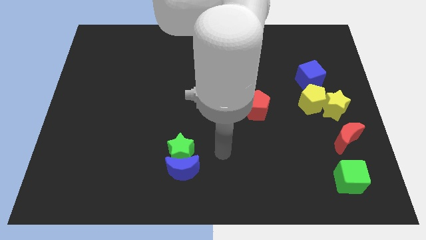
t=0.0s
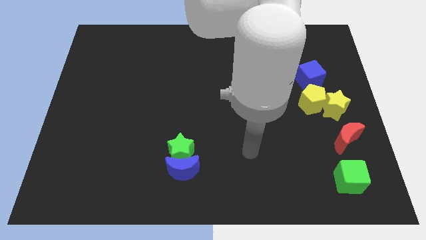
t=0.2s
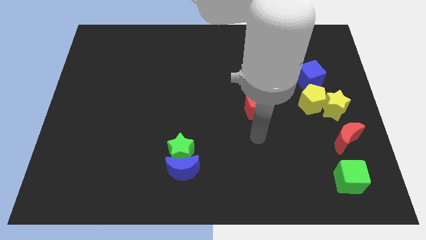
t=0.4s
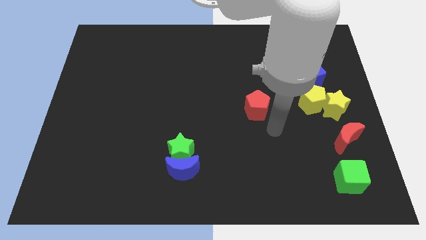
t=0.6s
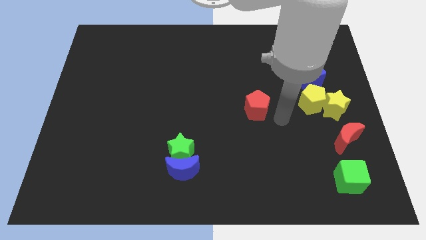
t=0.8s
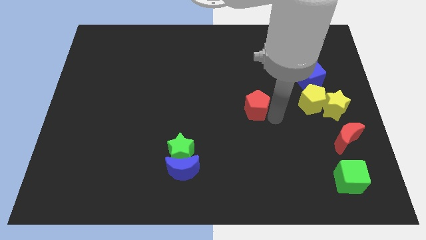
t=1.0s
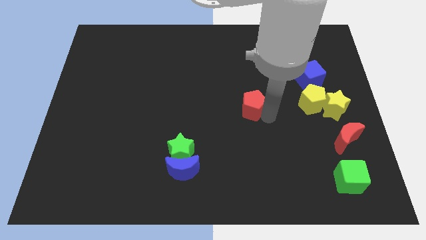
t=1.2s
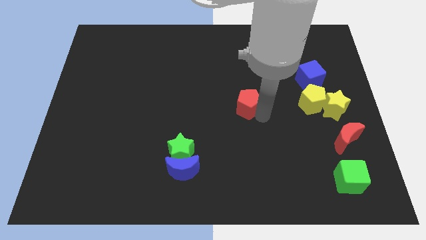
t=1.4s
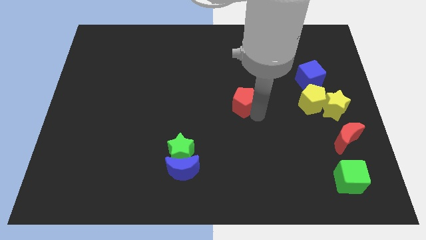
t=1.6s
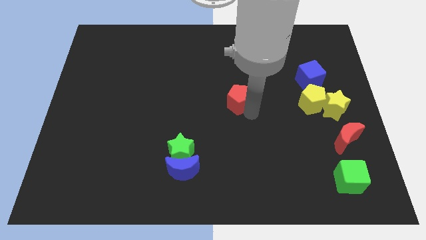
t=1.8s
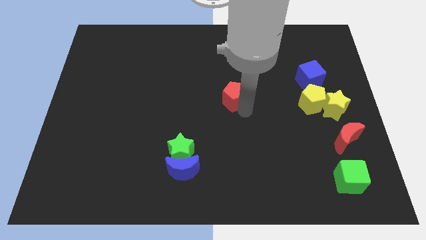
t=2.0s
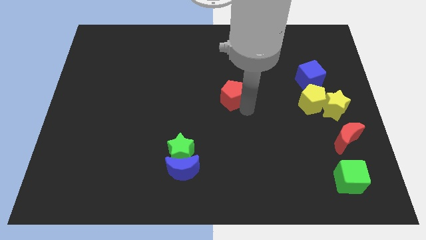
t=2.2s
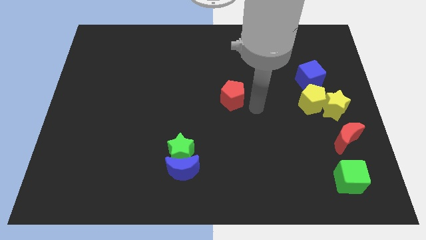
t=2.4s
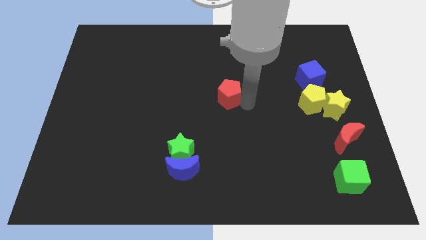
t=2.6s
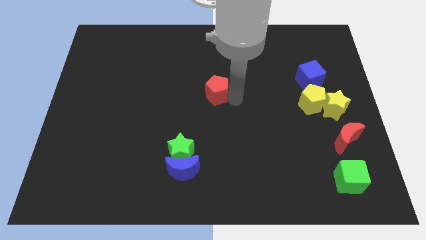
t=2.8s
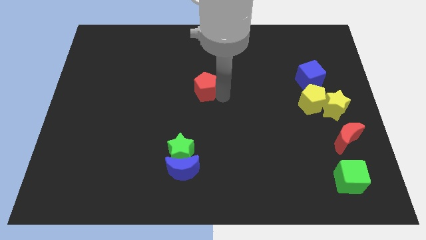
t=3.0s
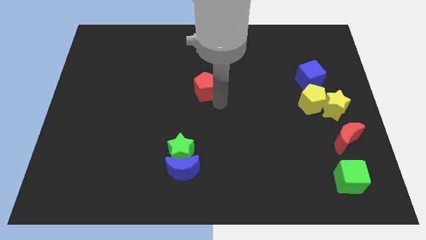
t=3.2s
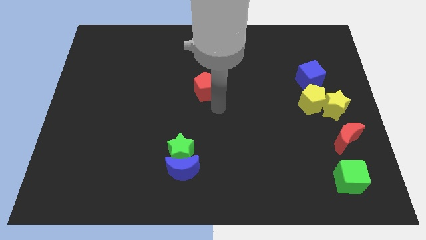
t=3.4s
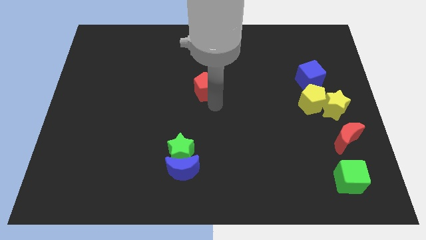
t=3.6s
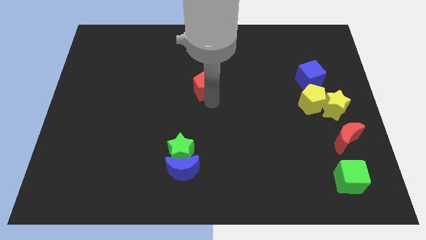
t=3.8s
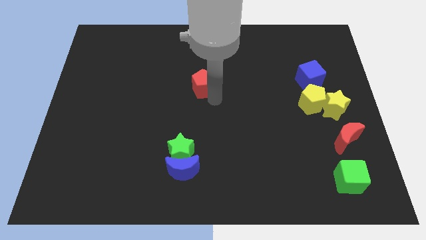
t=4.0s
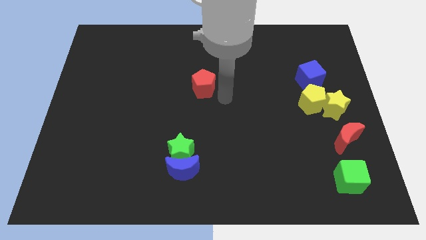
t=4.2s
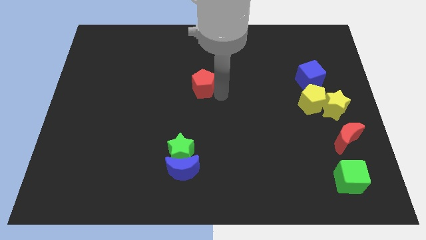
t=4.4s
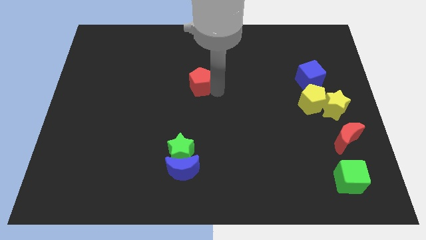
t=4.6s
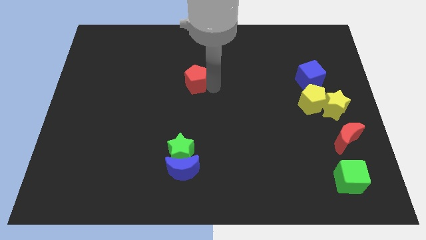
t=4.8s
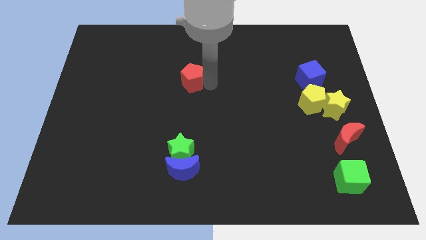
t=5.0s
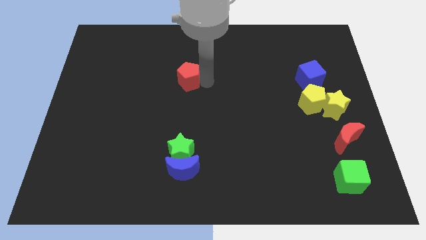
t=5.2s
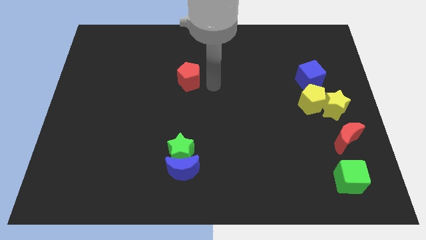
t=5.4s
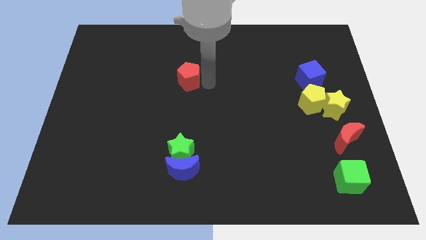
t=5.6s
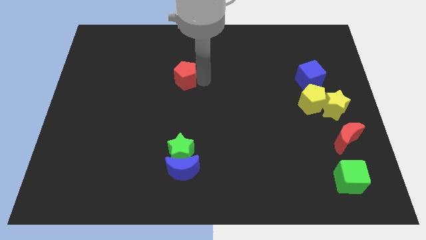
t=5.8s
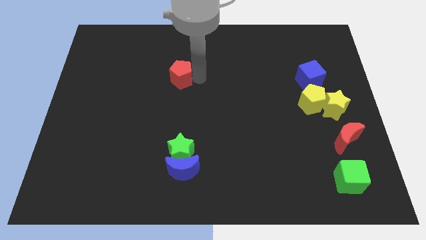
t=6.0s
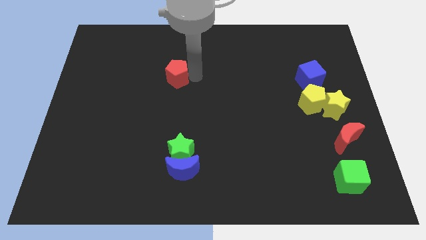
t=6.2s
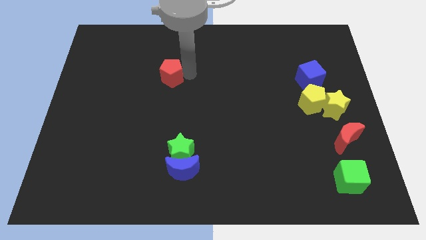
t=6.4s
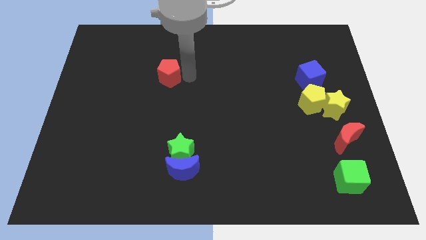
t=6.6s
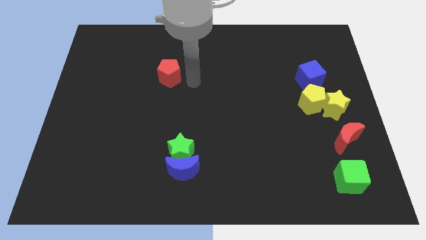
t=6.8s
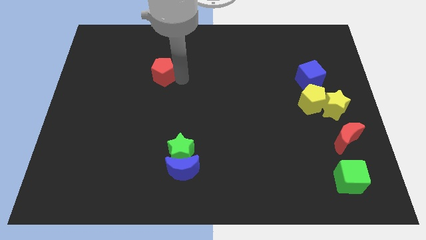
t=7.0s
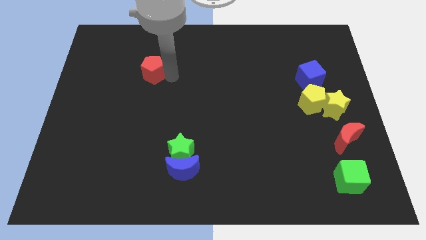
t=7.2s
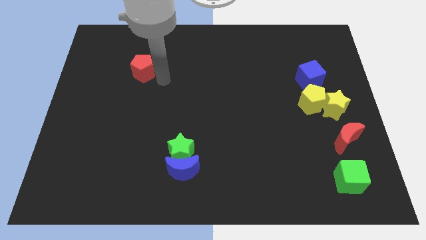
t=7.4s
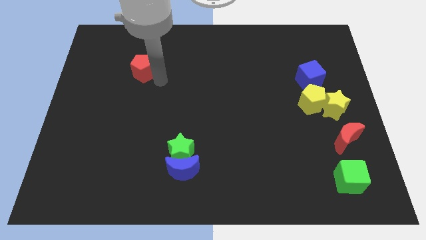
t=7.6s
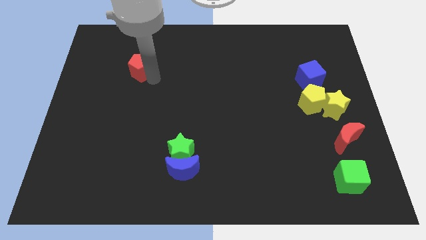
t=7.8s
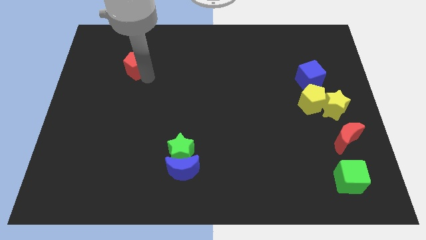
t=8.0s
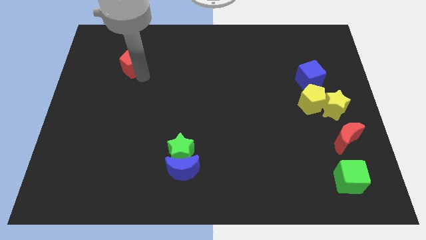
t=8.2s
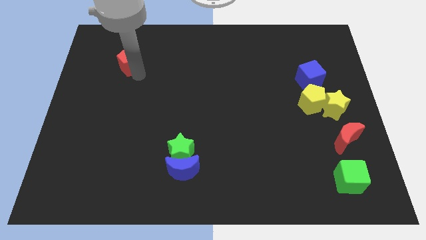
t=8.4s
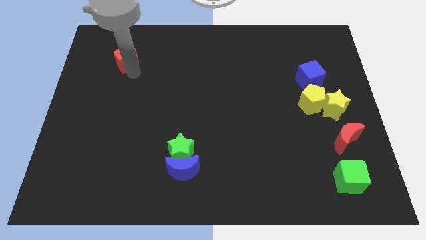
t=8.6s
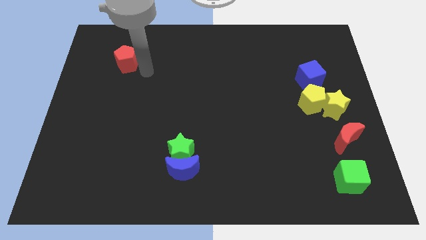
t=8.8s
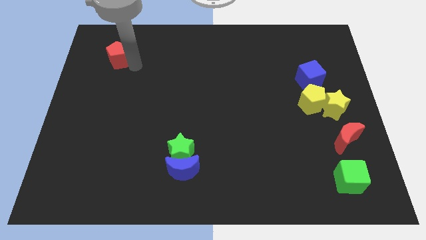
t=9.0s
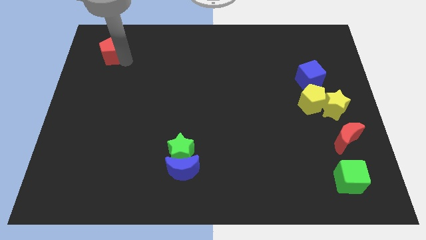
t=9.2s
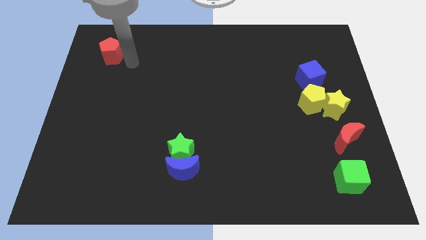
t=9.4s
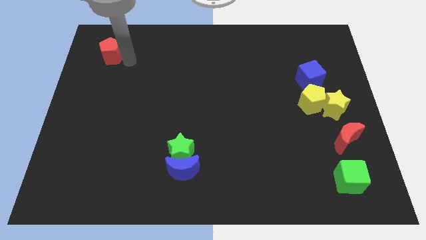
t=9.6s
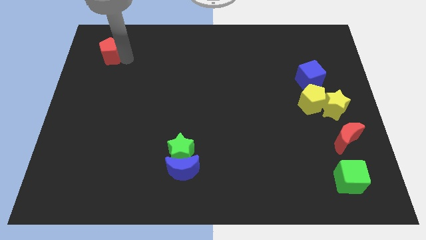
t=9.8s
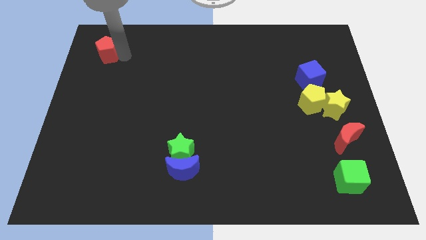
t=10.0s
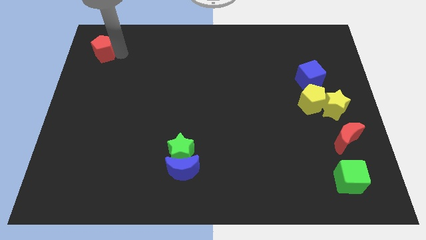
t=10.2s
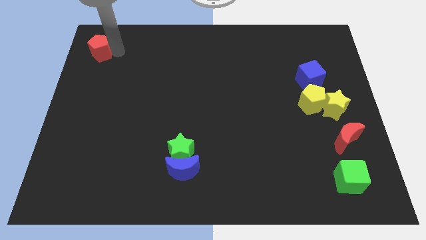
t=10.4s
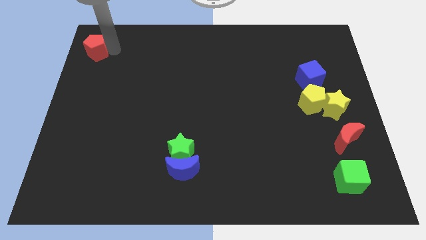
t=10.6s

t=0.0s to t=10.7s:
put the red pentagon to the top left corner

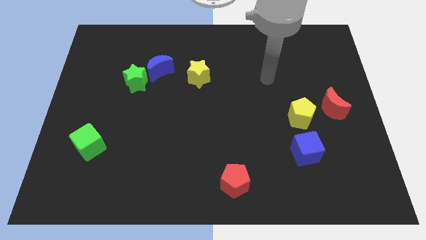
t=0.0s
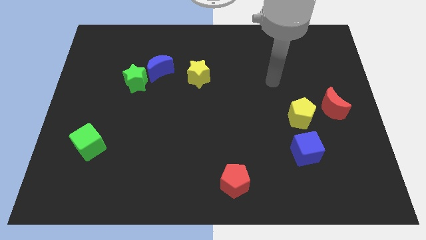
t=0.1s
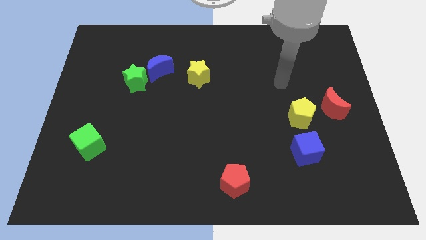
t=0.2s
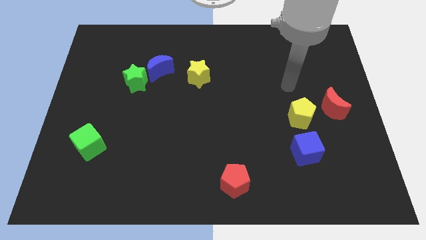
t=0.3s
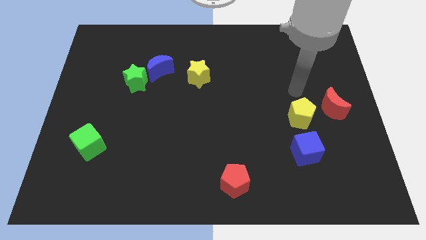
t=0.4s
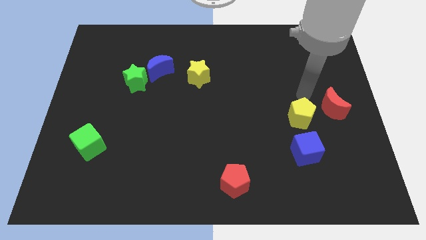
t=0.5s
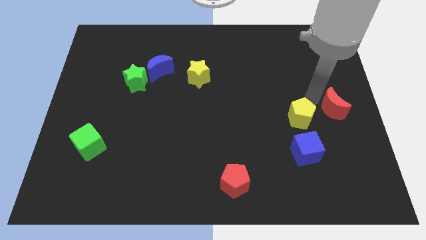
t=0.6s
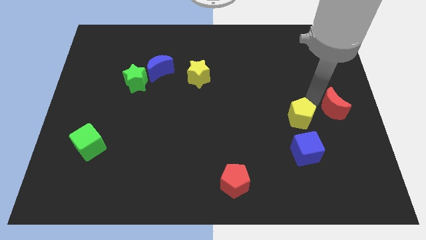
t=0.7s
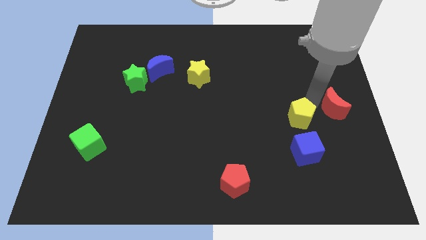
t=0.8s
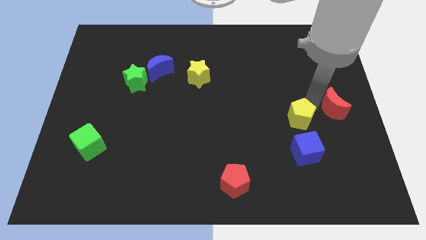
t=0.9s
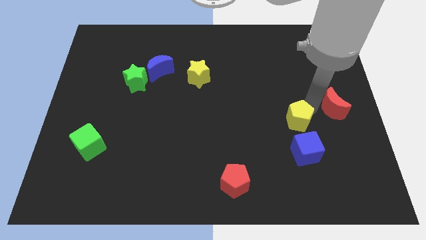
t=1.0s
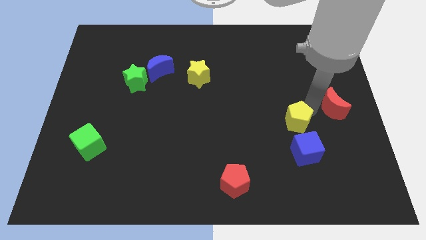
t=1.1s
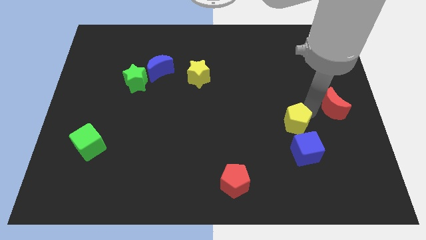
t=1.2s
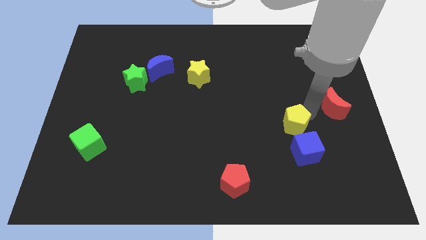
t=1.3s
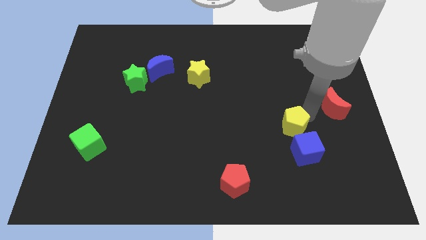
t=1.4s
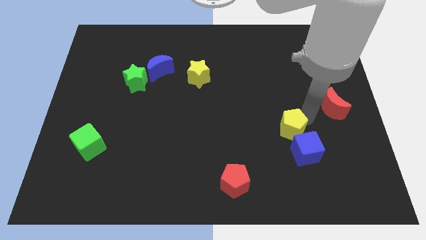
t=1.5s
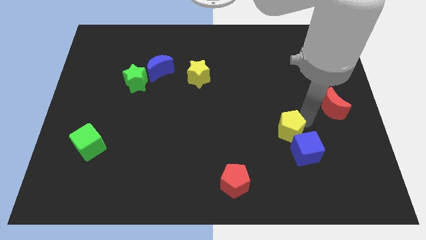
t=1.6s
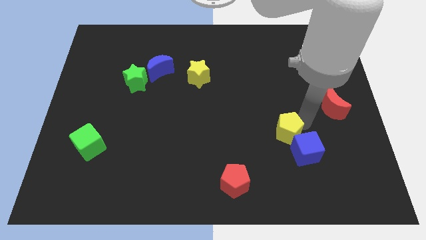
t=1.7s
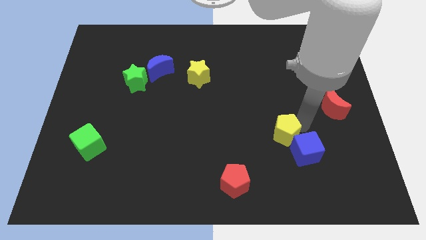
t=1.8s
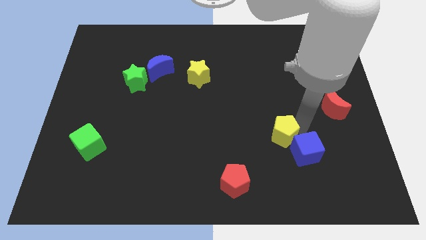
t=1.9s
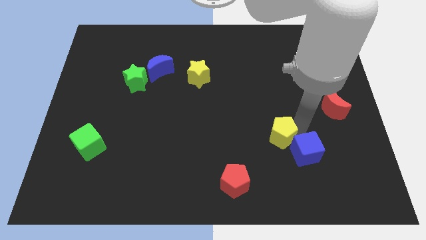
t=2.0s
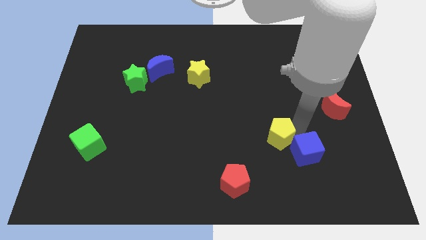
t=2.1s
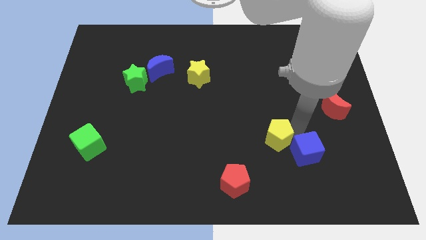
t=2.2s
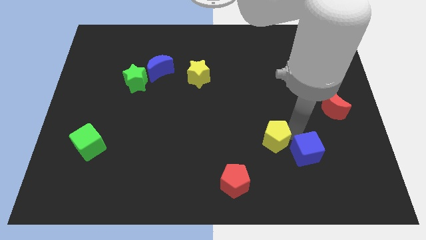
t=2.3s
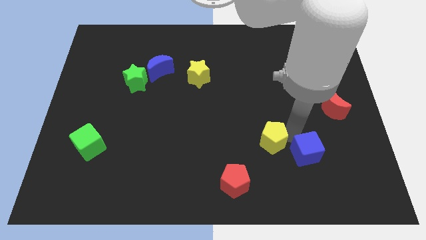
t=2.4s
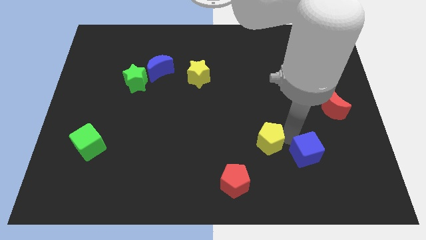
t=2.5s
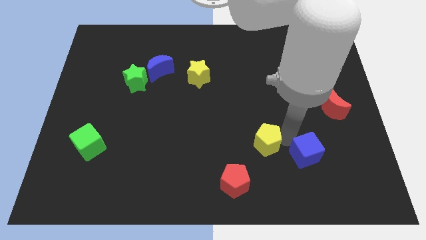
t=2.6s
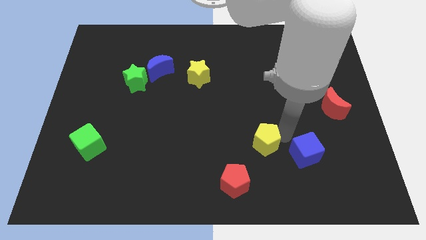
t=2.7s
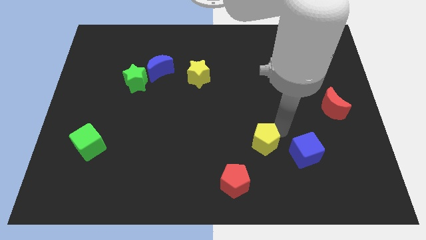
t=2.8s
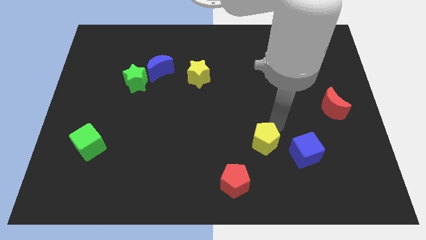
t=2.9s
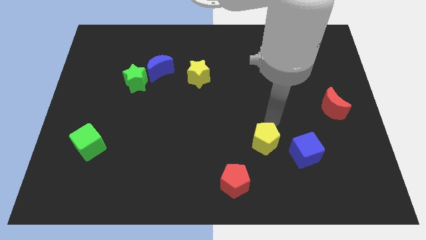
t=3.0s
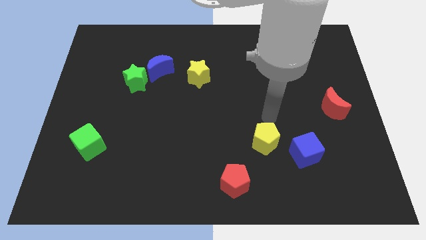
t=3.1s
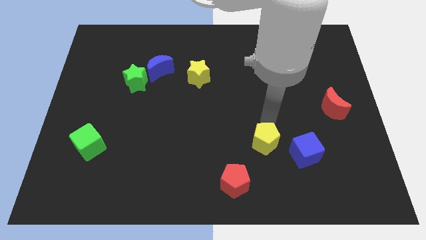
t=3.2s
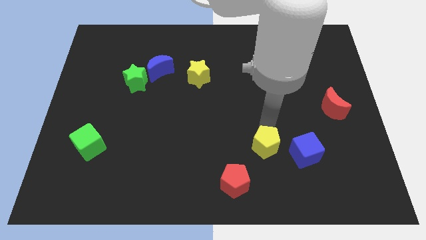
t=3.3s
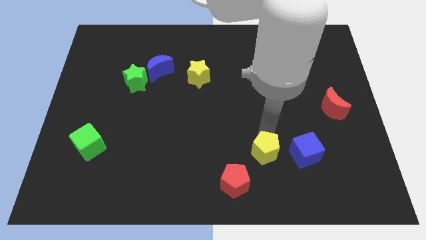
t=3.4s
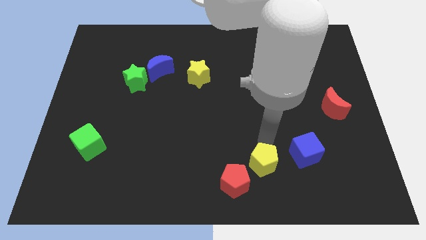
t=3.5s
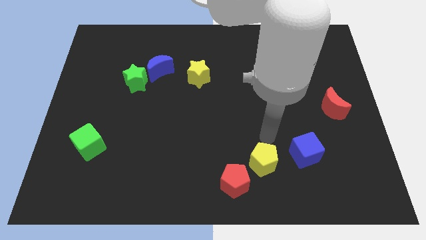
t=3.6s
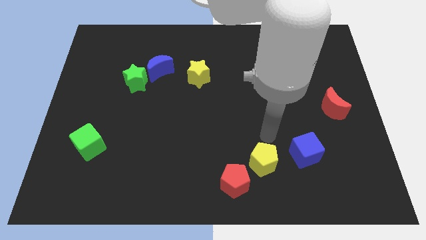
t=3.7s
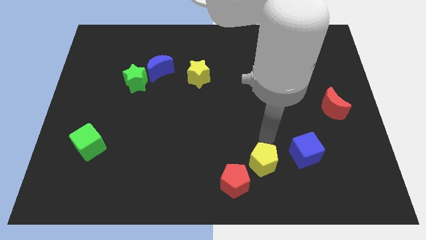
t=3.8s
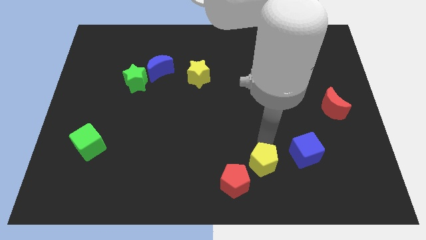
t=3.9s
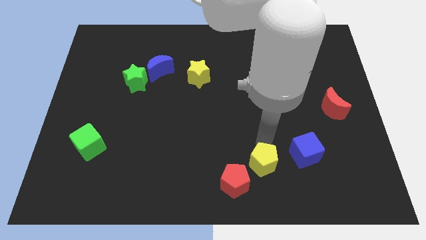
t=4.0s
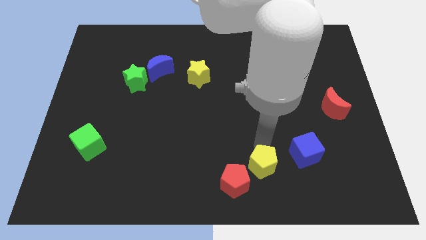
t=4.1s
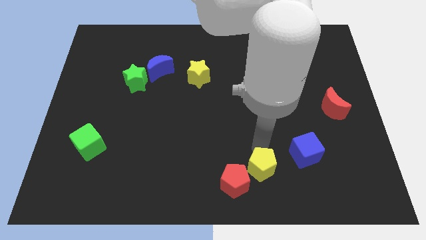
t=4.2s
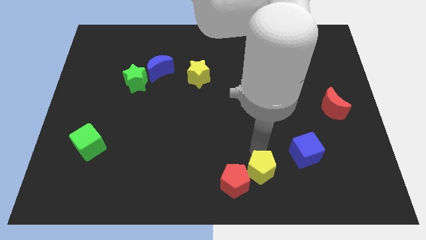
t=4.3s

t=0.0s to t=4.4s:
push the yellow pentagon to the bottom side
